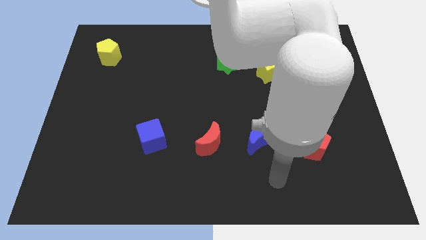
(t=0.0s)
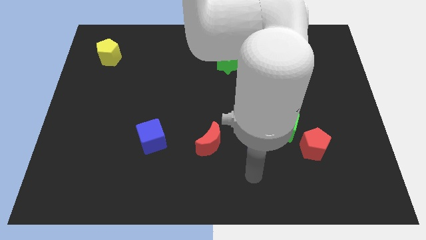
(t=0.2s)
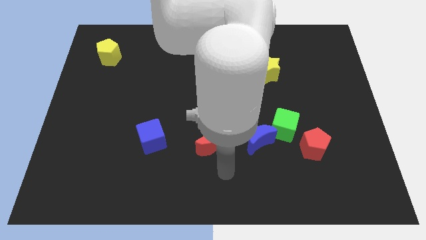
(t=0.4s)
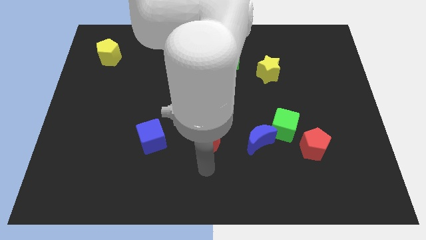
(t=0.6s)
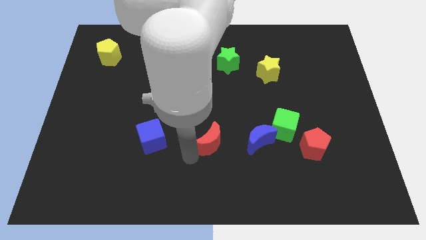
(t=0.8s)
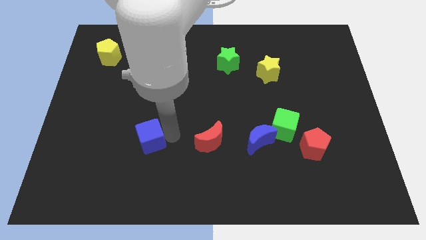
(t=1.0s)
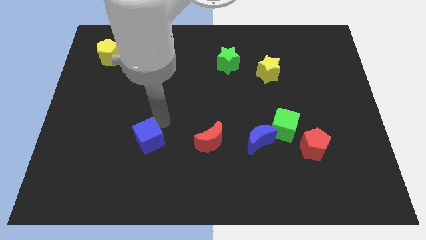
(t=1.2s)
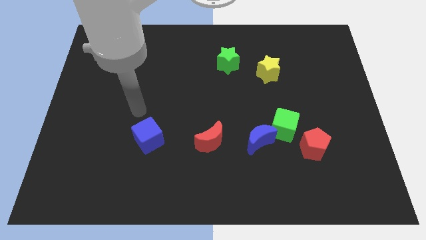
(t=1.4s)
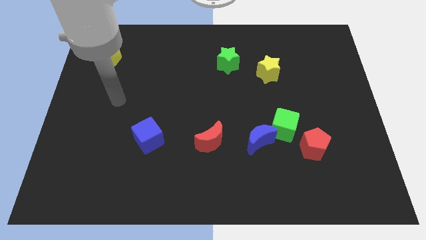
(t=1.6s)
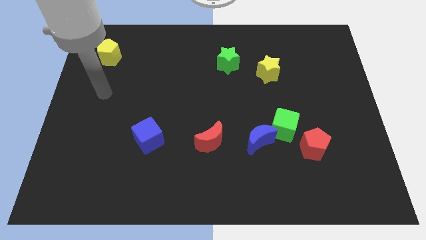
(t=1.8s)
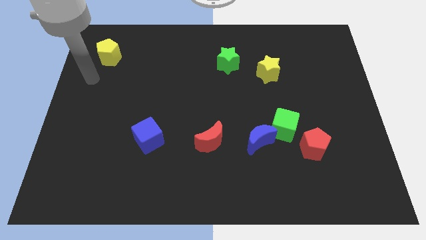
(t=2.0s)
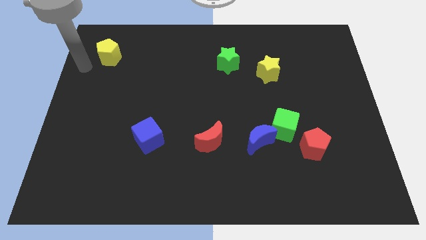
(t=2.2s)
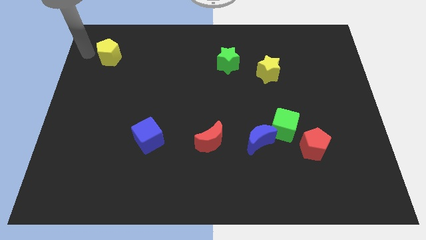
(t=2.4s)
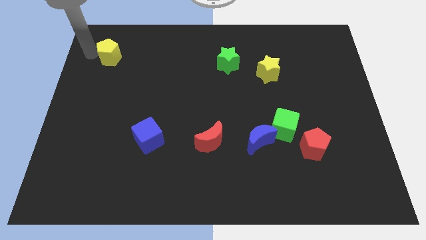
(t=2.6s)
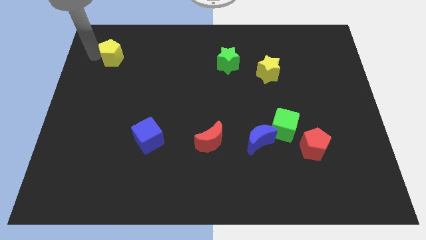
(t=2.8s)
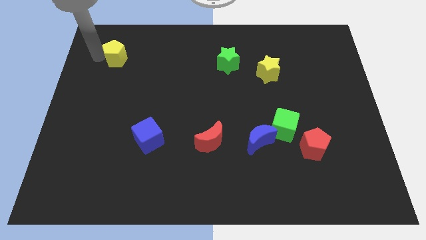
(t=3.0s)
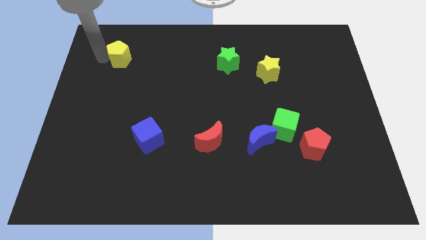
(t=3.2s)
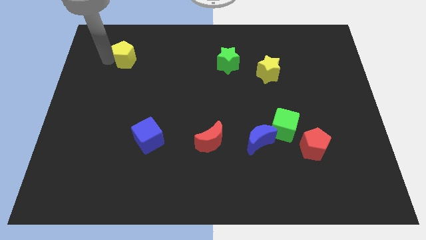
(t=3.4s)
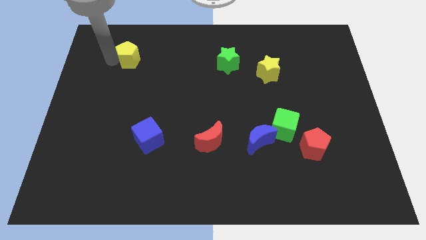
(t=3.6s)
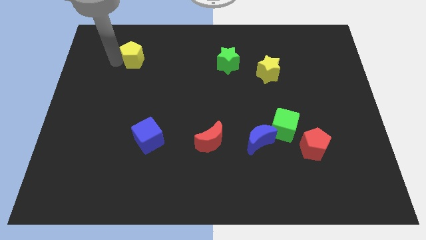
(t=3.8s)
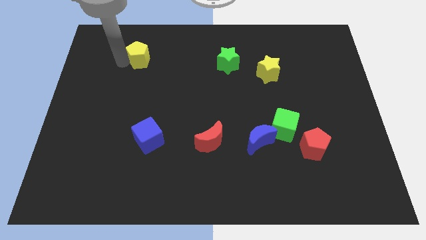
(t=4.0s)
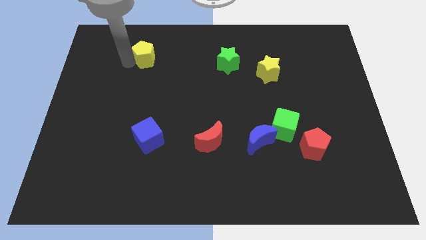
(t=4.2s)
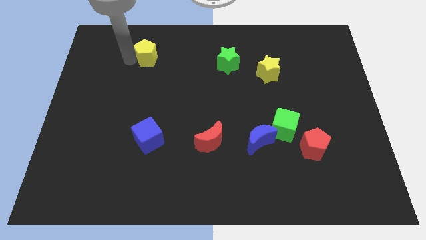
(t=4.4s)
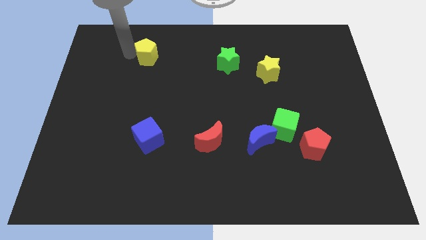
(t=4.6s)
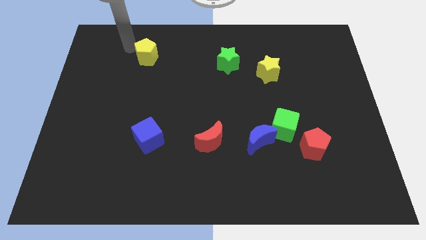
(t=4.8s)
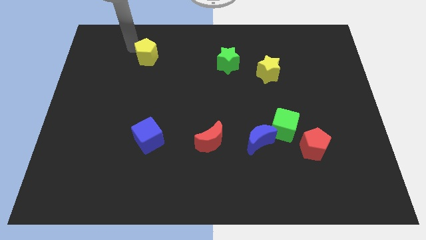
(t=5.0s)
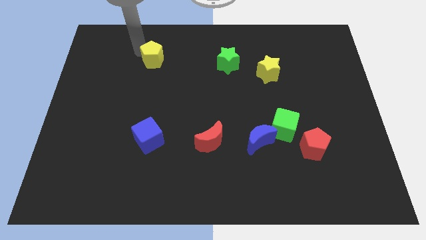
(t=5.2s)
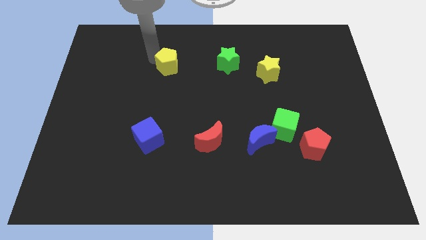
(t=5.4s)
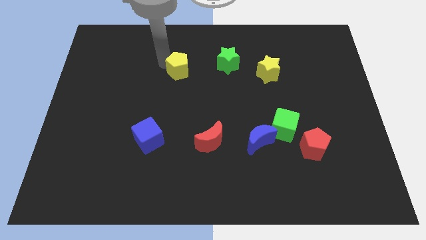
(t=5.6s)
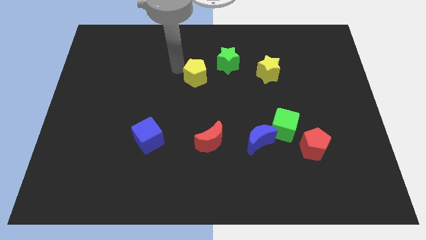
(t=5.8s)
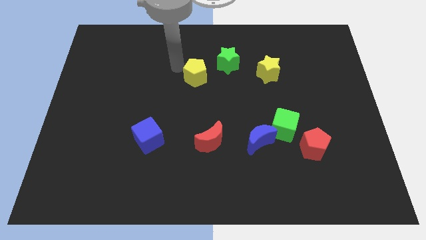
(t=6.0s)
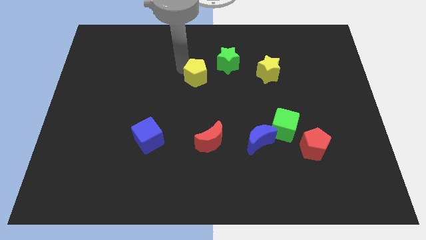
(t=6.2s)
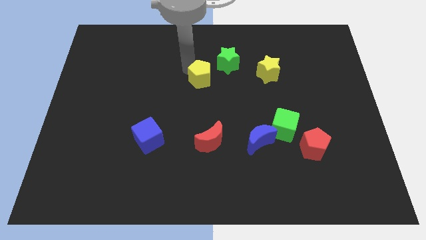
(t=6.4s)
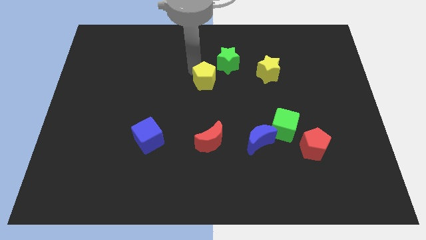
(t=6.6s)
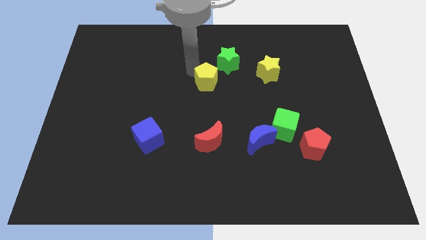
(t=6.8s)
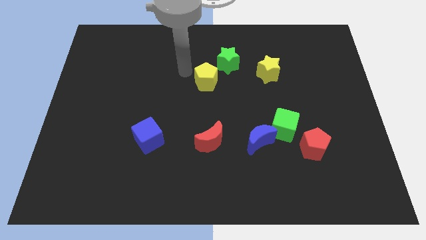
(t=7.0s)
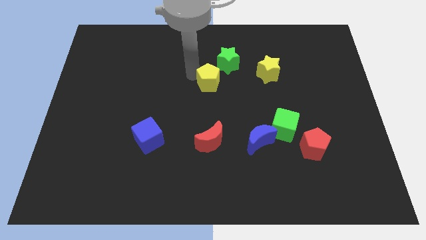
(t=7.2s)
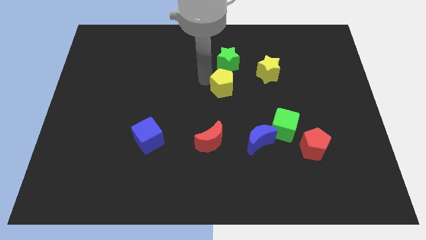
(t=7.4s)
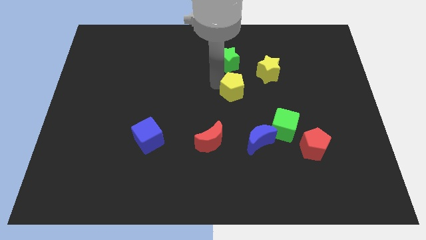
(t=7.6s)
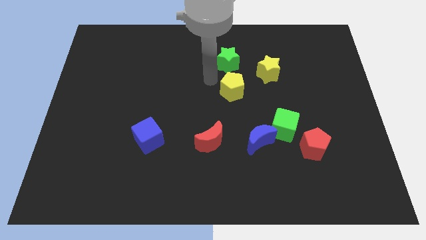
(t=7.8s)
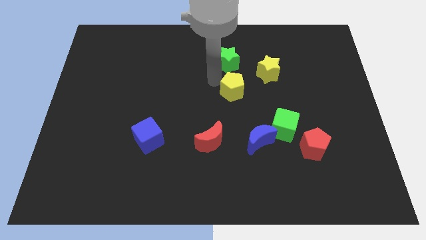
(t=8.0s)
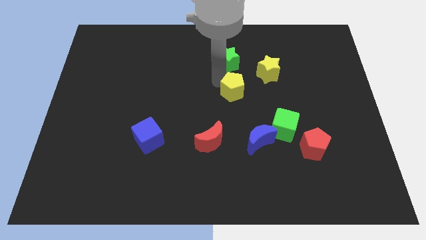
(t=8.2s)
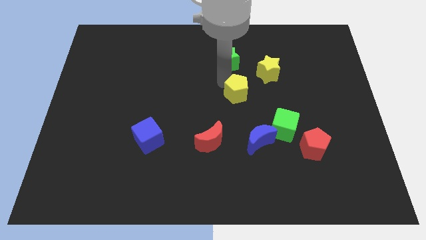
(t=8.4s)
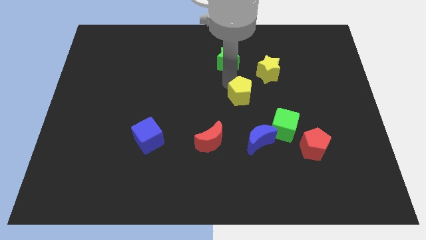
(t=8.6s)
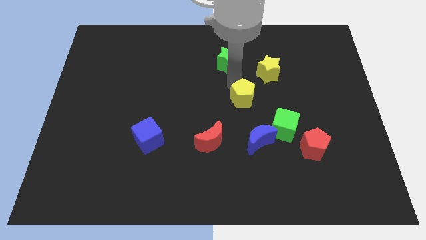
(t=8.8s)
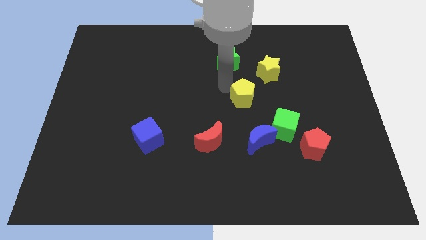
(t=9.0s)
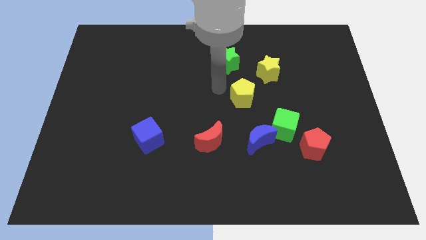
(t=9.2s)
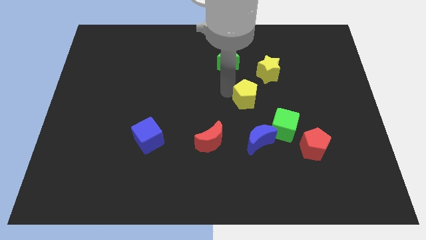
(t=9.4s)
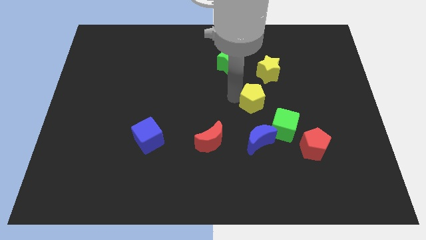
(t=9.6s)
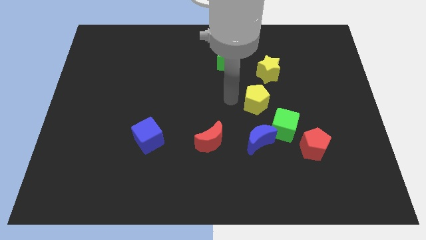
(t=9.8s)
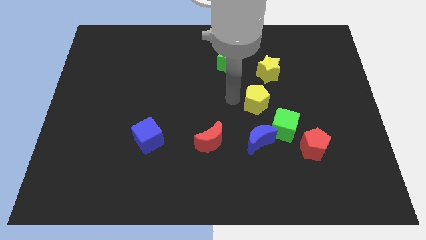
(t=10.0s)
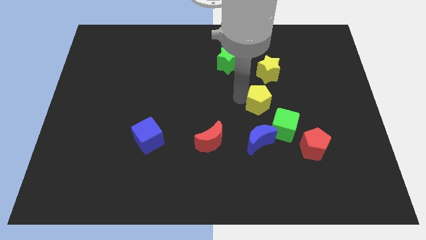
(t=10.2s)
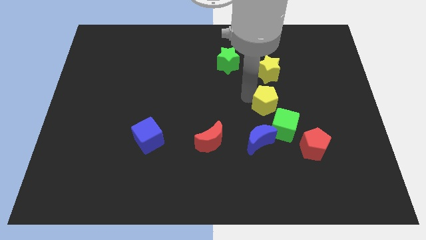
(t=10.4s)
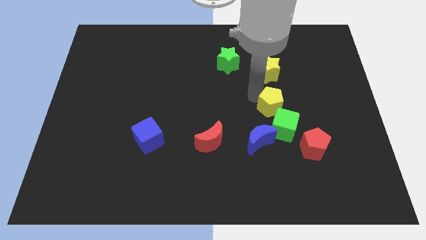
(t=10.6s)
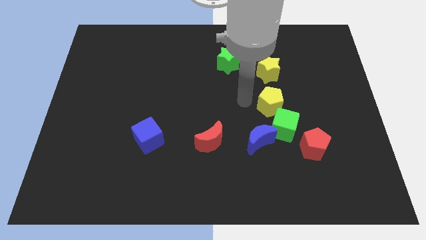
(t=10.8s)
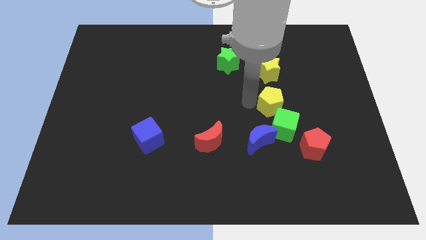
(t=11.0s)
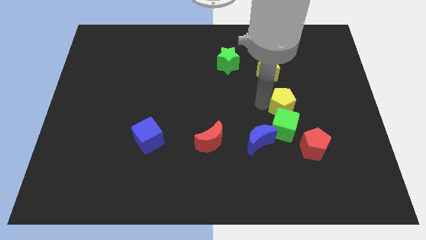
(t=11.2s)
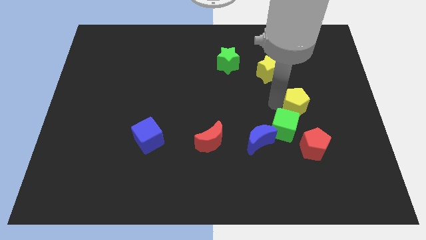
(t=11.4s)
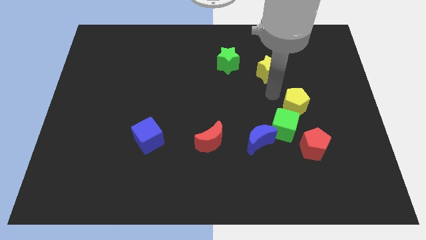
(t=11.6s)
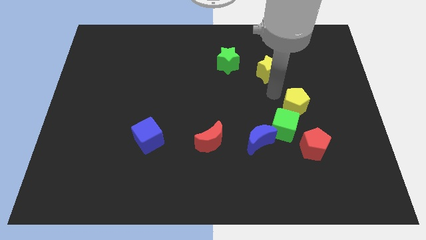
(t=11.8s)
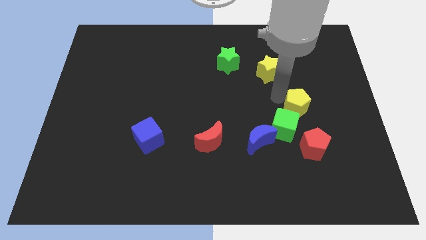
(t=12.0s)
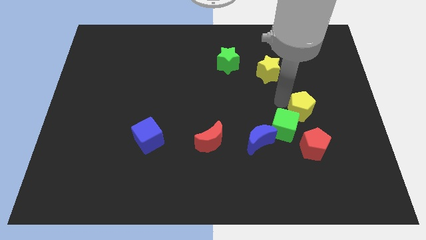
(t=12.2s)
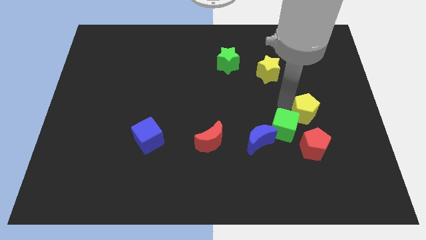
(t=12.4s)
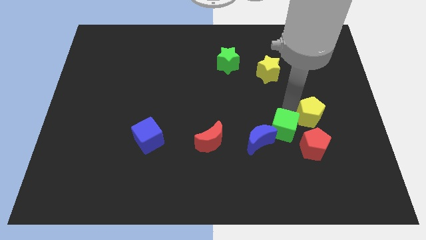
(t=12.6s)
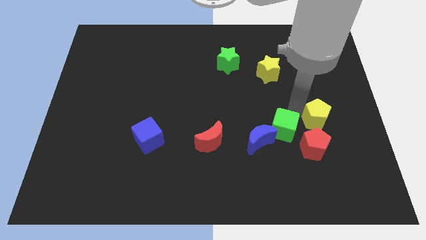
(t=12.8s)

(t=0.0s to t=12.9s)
push the yellow pentagon to the top right side of the red pentagon

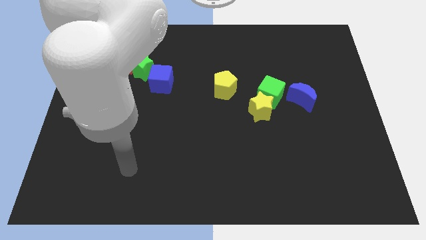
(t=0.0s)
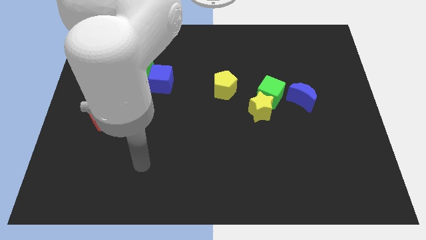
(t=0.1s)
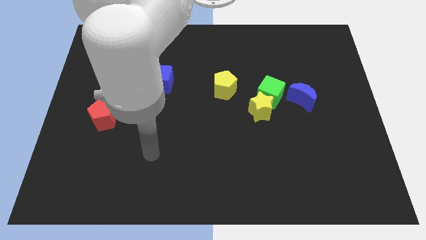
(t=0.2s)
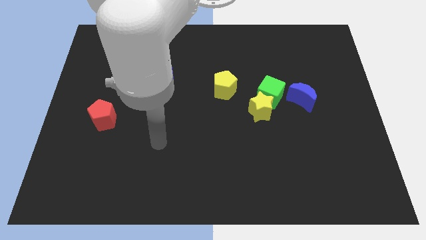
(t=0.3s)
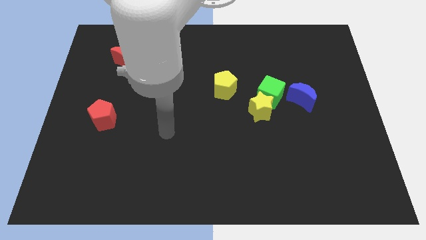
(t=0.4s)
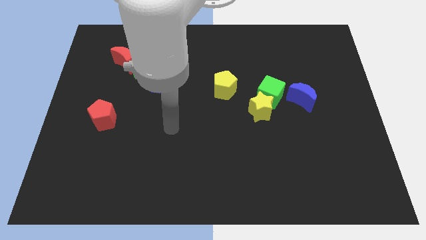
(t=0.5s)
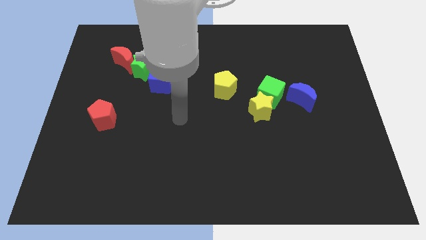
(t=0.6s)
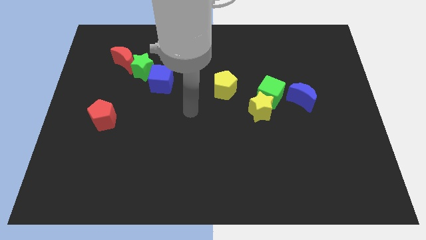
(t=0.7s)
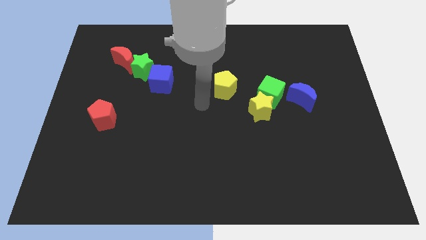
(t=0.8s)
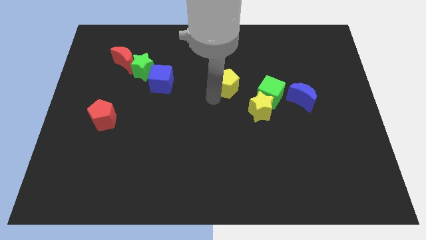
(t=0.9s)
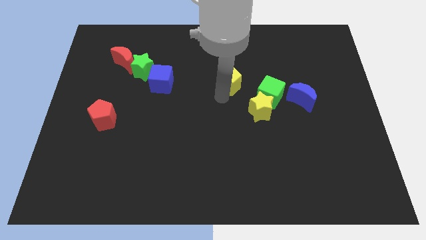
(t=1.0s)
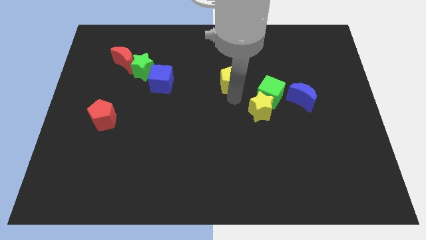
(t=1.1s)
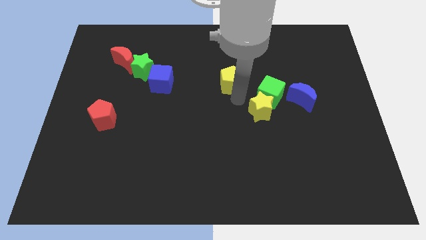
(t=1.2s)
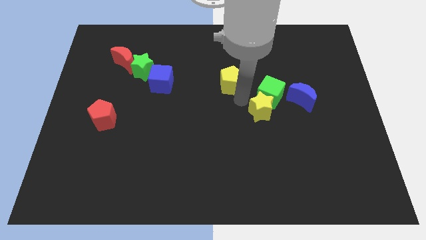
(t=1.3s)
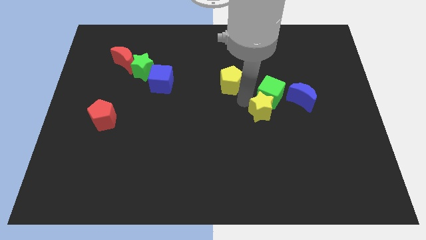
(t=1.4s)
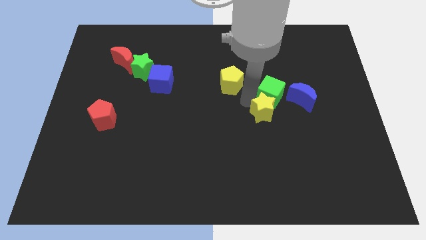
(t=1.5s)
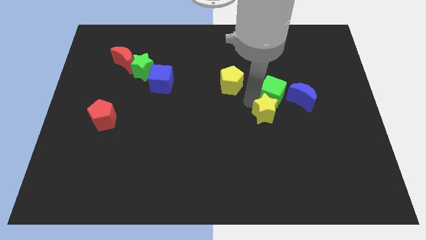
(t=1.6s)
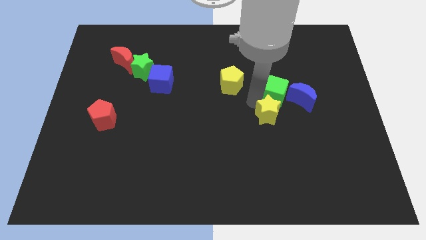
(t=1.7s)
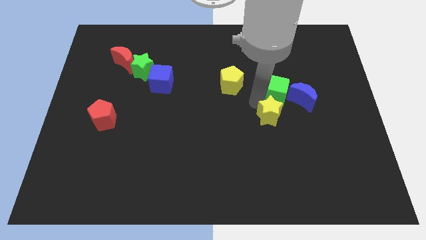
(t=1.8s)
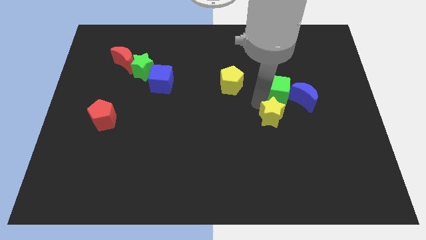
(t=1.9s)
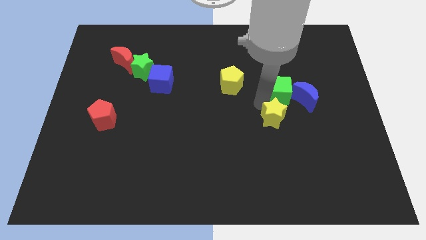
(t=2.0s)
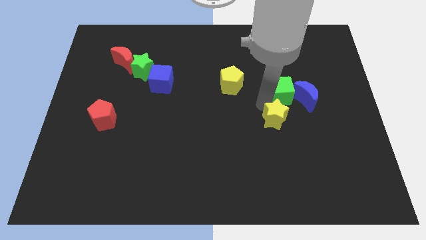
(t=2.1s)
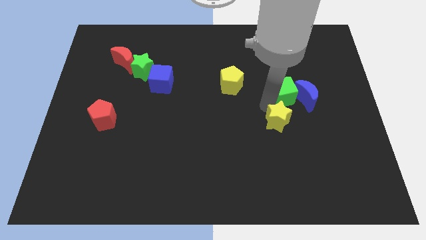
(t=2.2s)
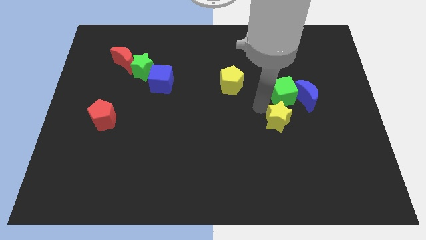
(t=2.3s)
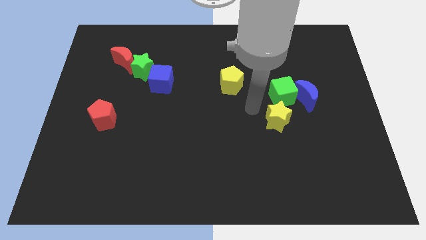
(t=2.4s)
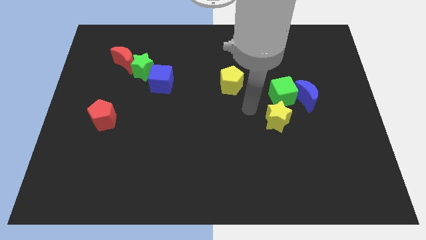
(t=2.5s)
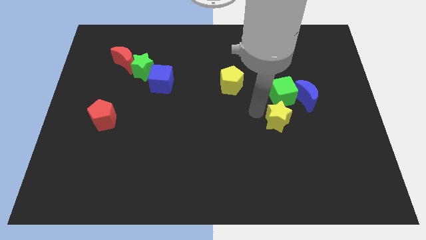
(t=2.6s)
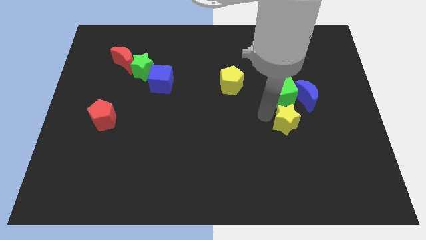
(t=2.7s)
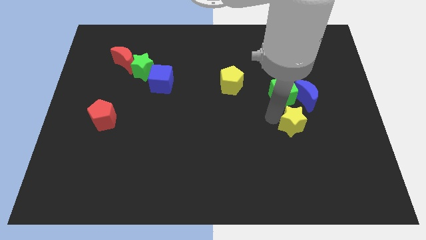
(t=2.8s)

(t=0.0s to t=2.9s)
slide the yellow star below the blue moon
